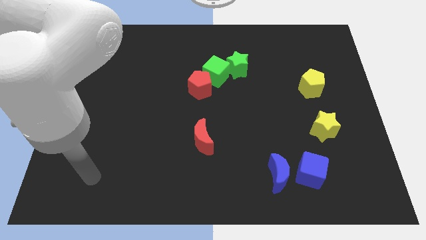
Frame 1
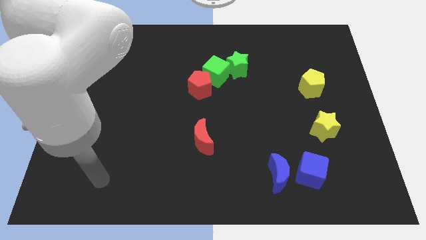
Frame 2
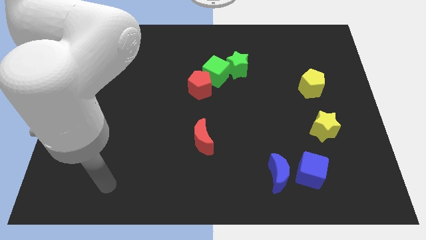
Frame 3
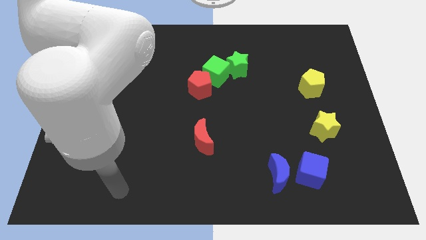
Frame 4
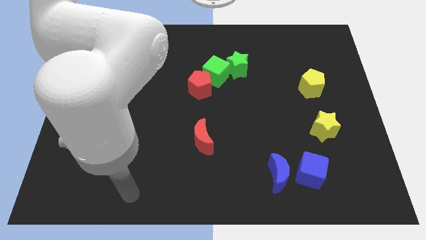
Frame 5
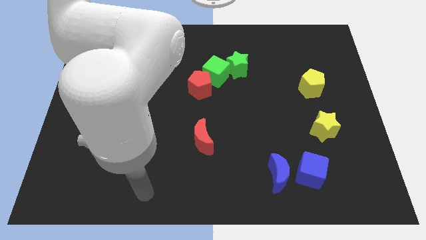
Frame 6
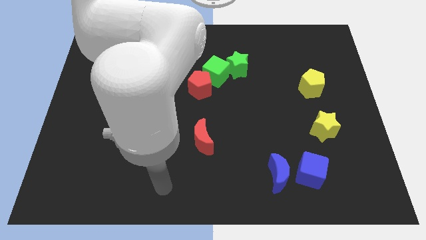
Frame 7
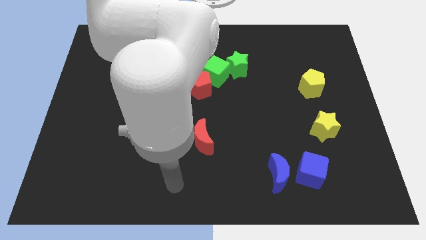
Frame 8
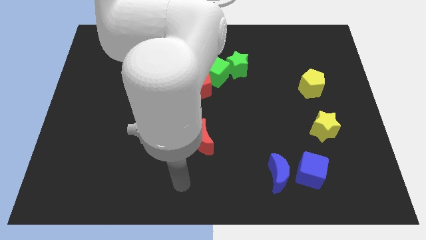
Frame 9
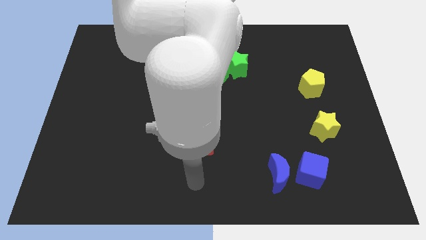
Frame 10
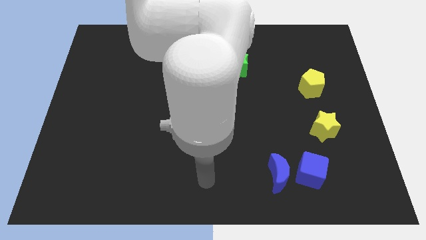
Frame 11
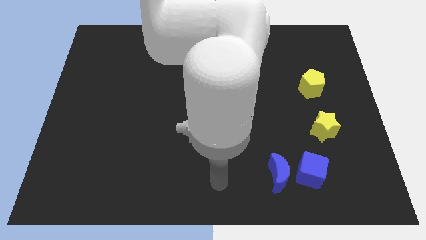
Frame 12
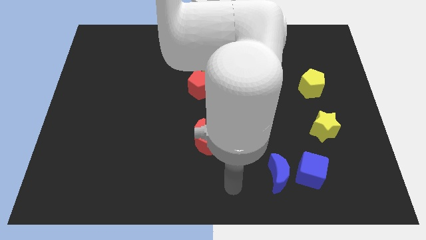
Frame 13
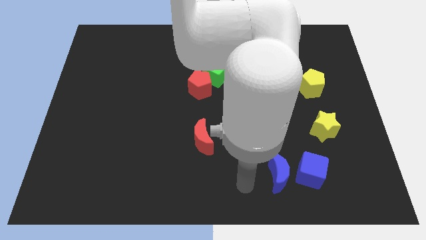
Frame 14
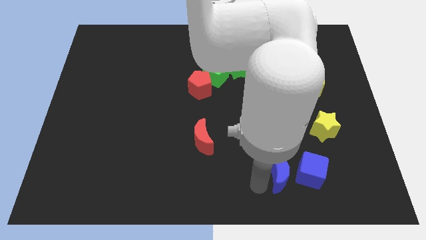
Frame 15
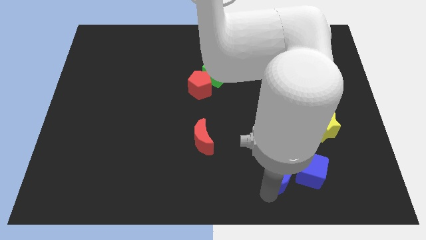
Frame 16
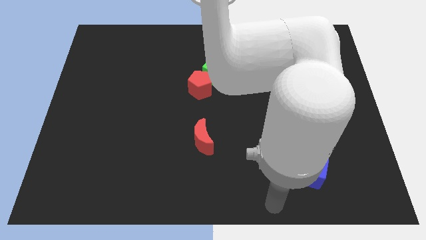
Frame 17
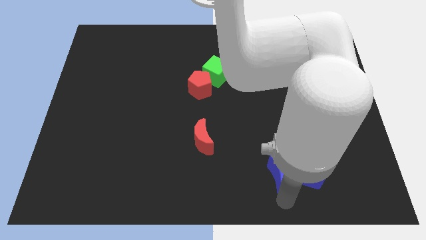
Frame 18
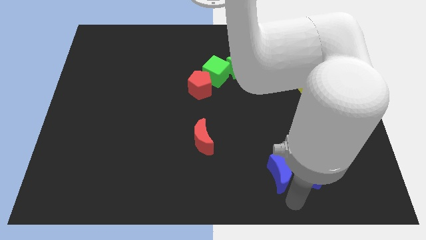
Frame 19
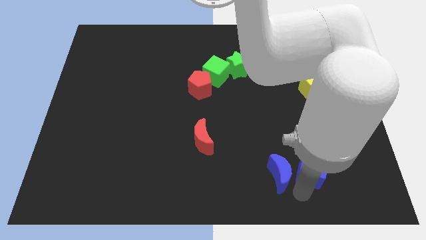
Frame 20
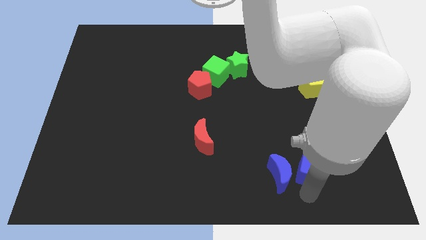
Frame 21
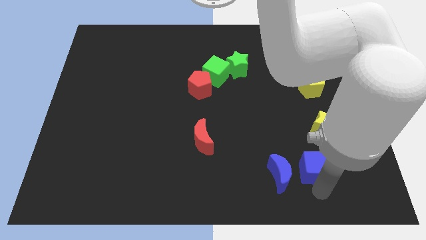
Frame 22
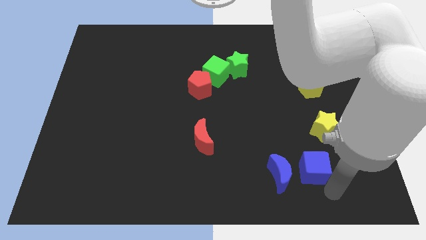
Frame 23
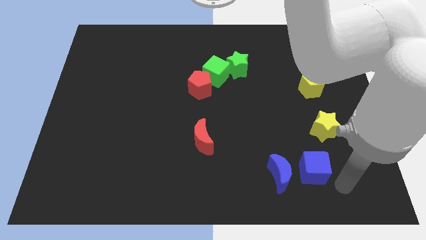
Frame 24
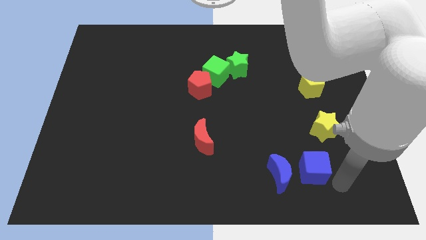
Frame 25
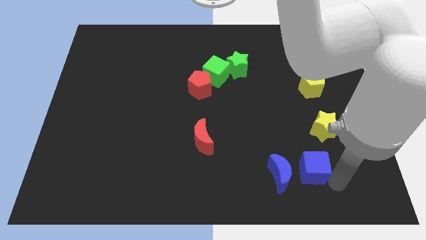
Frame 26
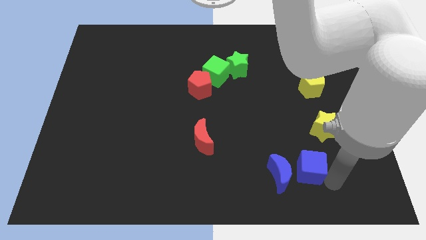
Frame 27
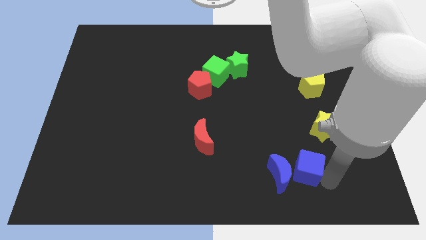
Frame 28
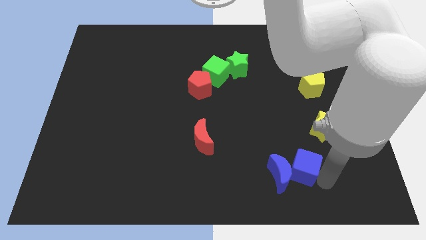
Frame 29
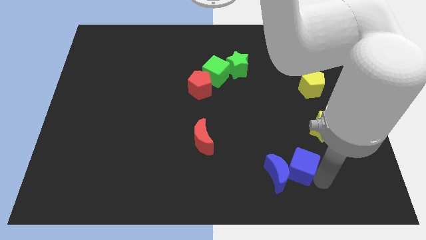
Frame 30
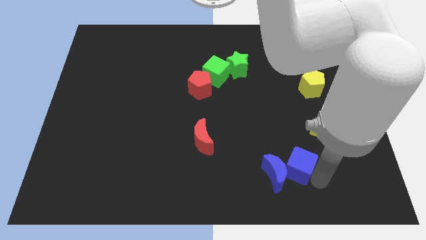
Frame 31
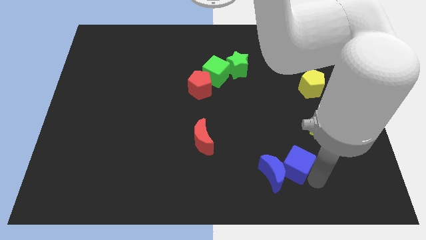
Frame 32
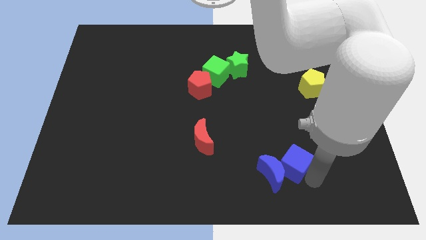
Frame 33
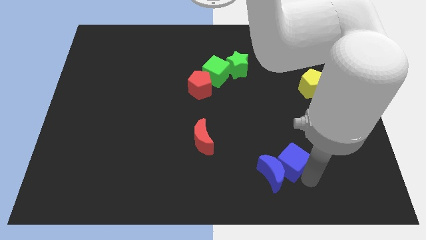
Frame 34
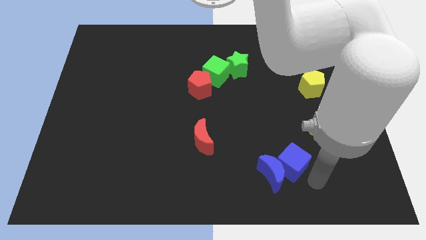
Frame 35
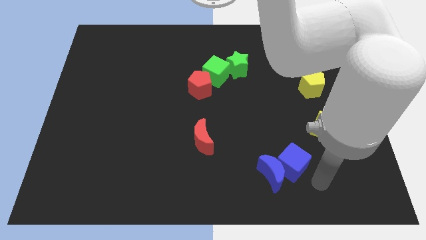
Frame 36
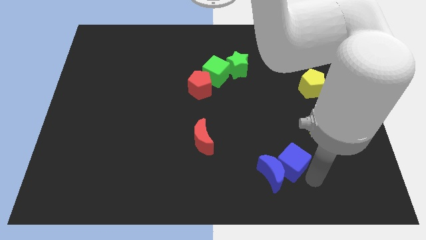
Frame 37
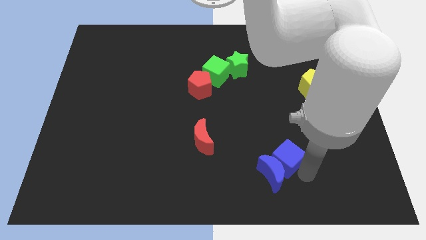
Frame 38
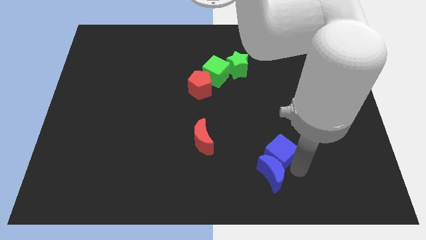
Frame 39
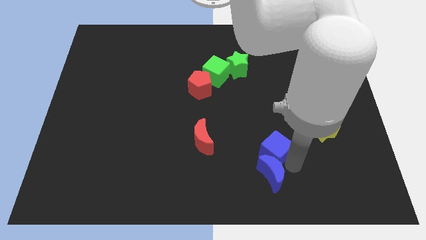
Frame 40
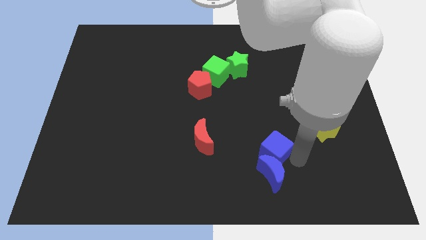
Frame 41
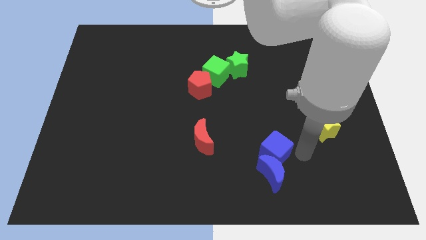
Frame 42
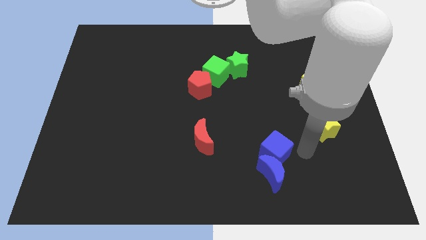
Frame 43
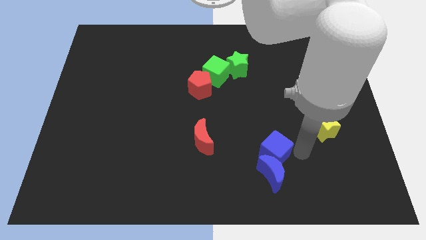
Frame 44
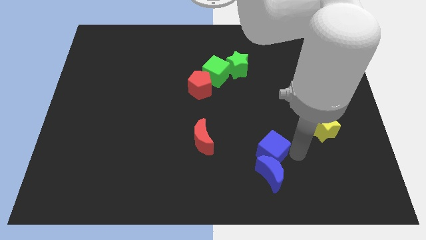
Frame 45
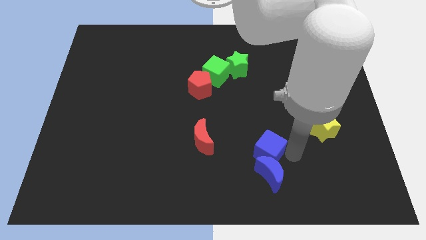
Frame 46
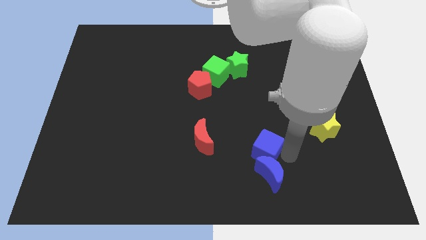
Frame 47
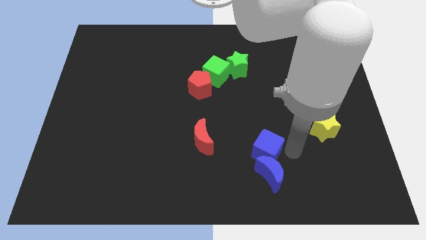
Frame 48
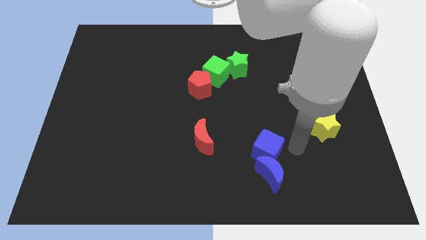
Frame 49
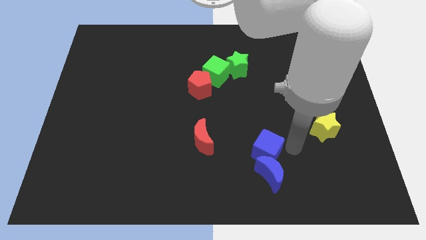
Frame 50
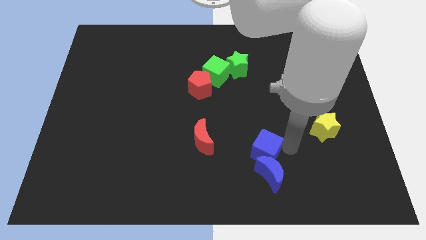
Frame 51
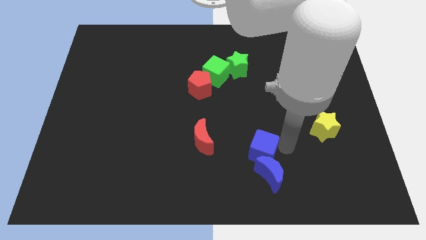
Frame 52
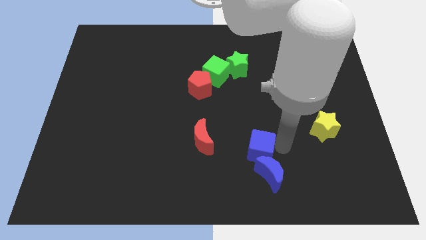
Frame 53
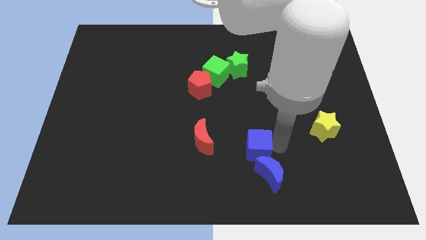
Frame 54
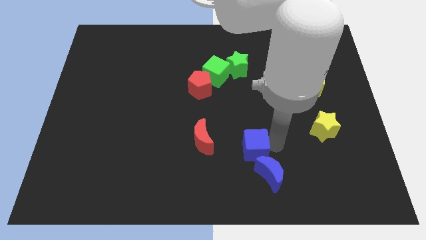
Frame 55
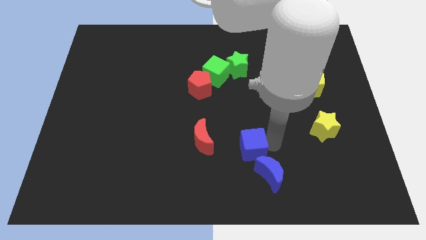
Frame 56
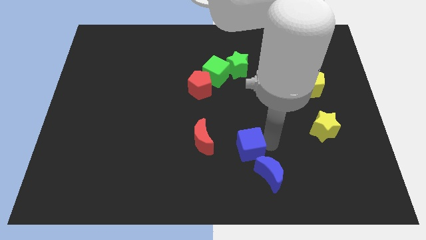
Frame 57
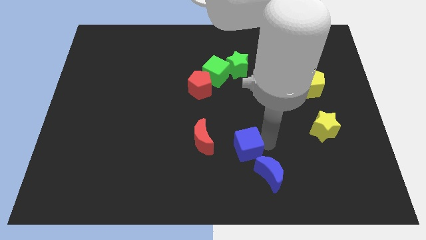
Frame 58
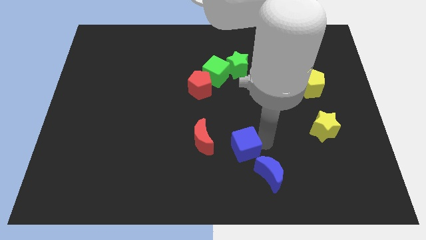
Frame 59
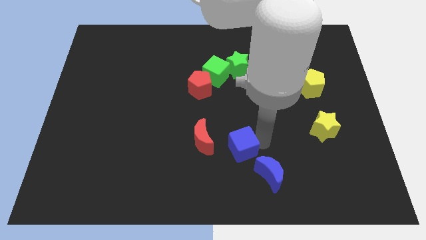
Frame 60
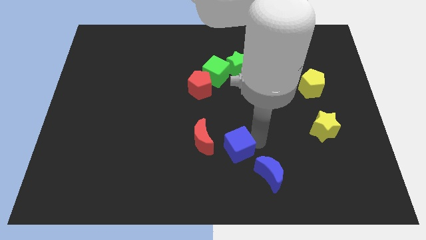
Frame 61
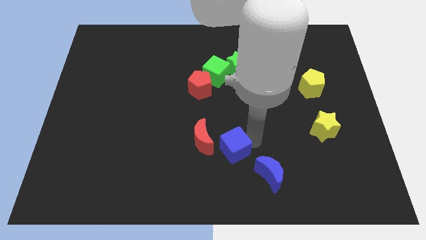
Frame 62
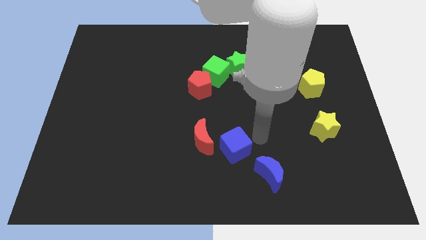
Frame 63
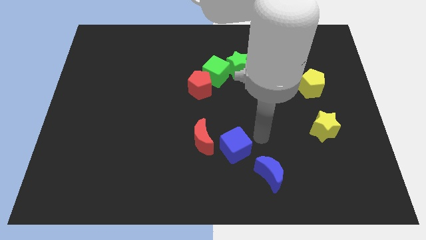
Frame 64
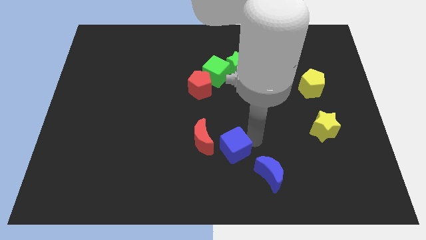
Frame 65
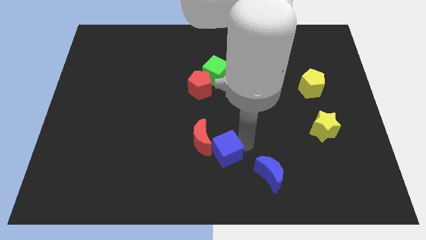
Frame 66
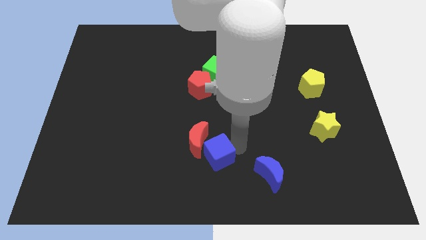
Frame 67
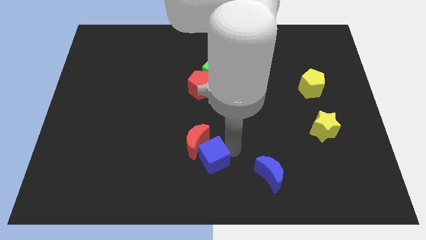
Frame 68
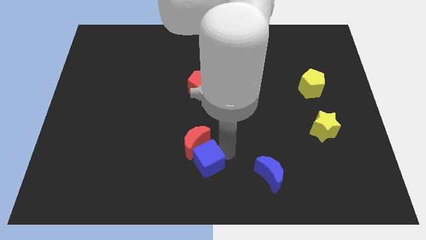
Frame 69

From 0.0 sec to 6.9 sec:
slide the blue cube left

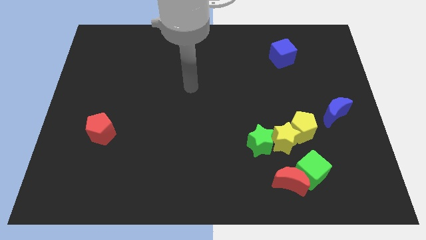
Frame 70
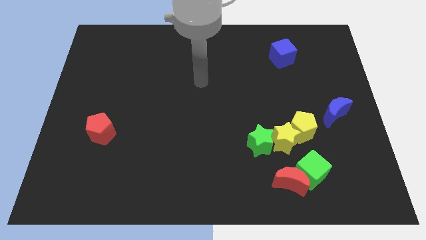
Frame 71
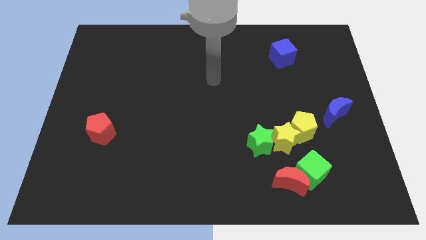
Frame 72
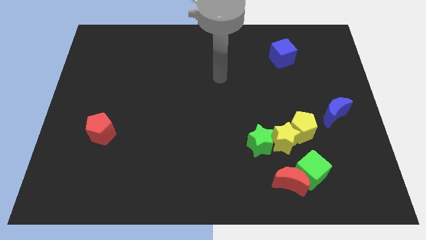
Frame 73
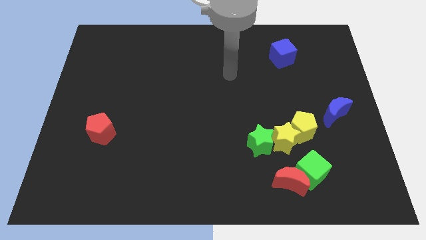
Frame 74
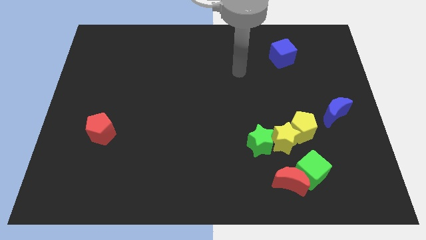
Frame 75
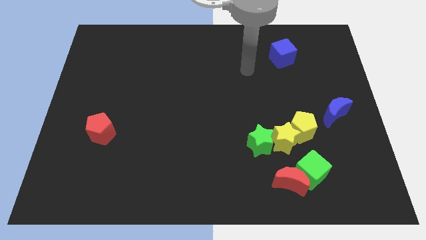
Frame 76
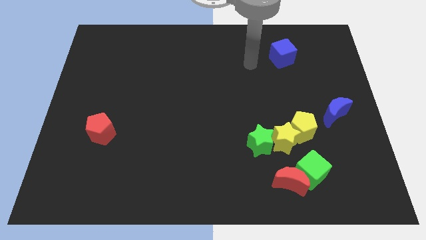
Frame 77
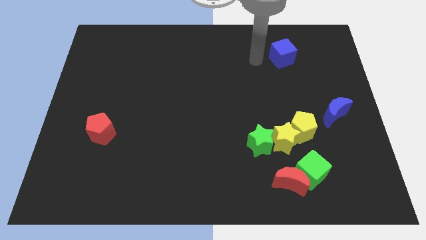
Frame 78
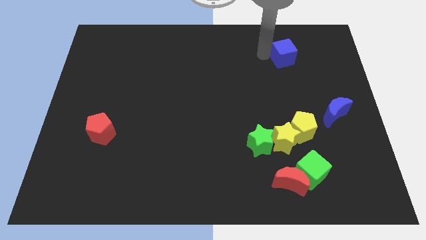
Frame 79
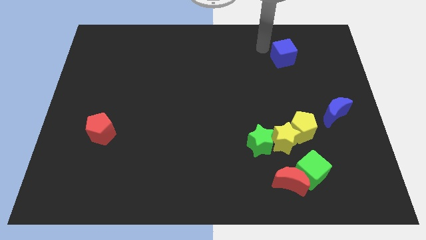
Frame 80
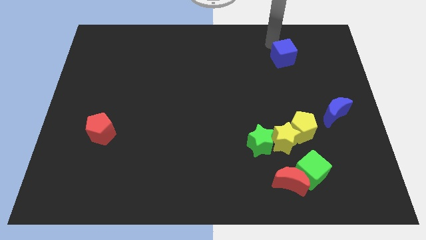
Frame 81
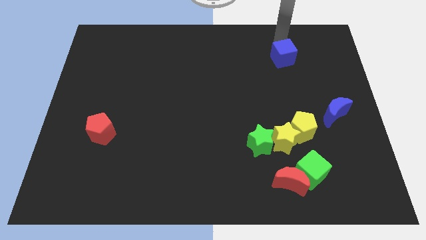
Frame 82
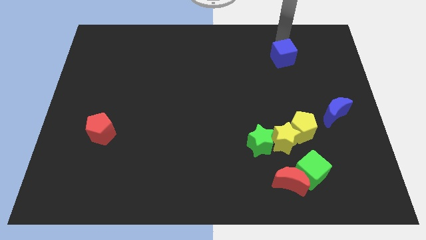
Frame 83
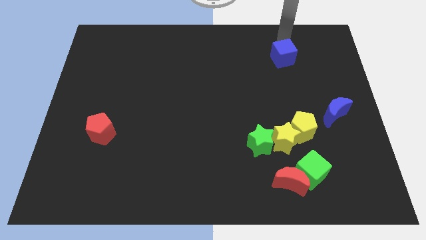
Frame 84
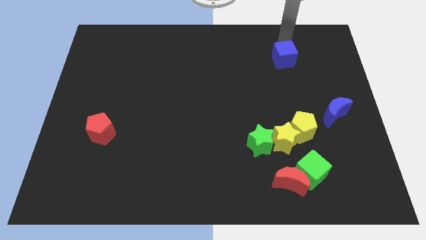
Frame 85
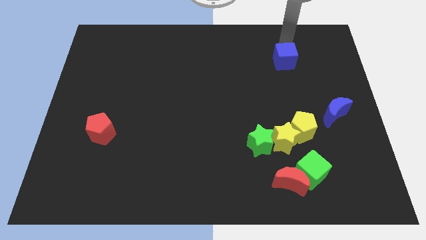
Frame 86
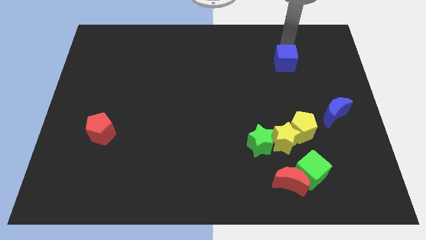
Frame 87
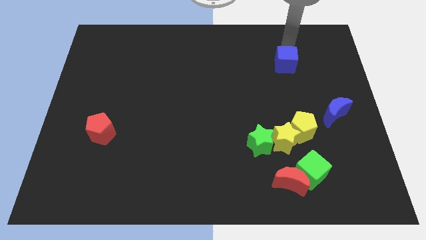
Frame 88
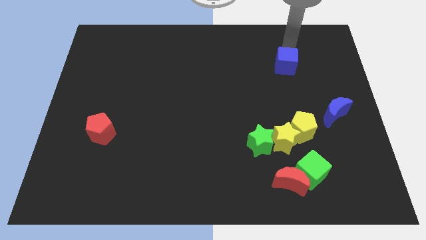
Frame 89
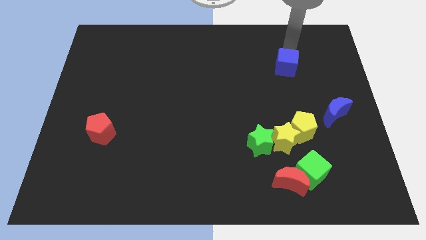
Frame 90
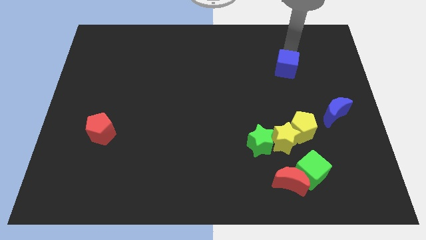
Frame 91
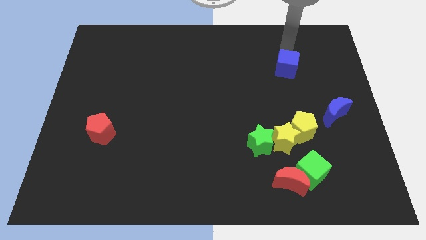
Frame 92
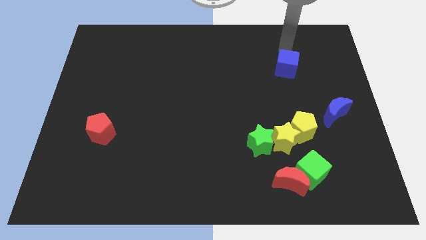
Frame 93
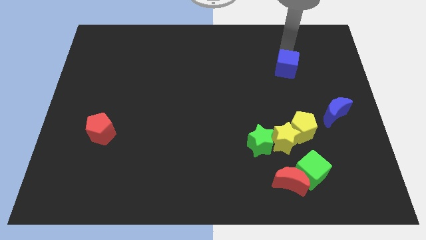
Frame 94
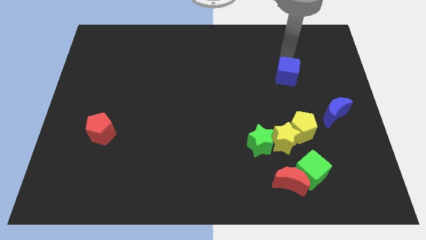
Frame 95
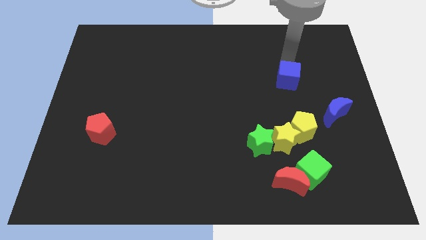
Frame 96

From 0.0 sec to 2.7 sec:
slide the blue cube a bit down
